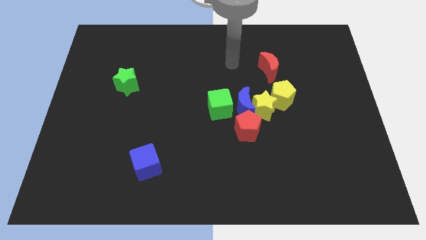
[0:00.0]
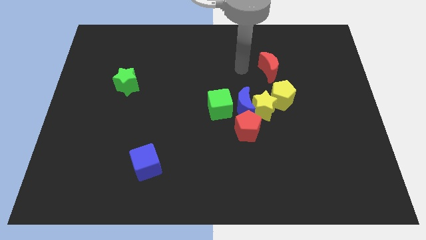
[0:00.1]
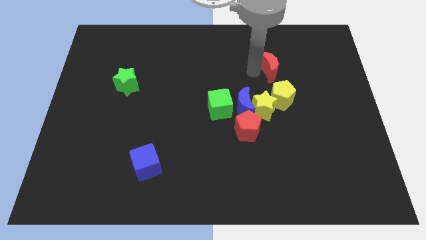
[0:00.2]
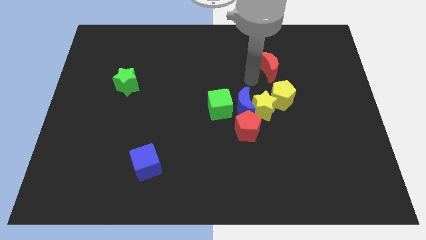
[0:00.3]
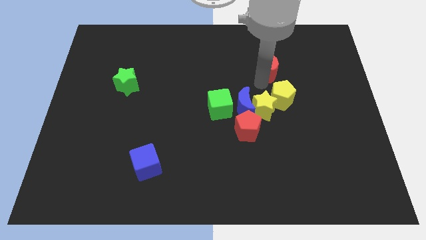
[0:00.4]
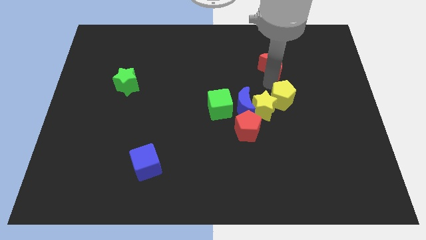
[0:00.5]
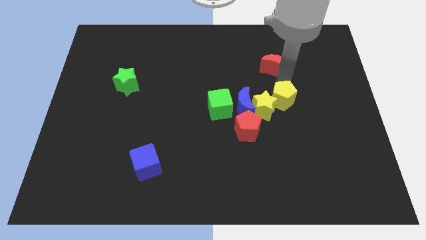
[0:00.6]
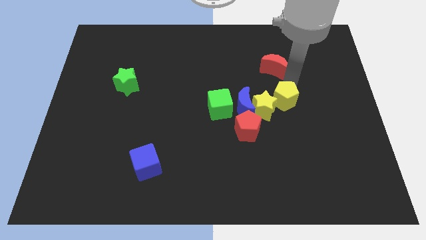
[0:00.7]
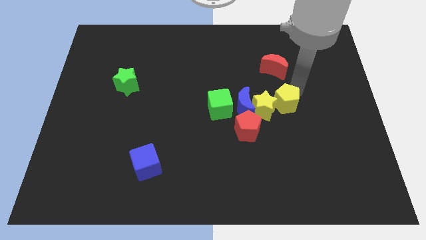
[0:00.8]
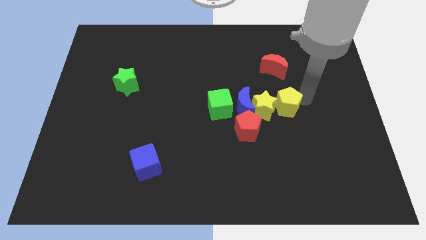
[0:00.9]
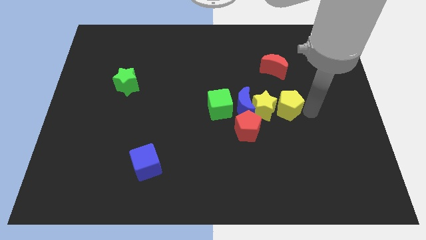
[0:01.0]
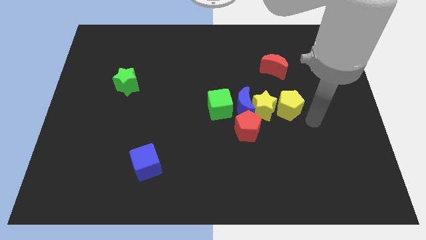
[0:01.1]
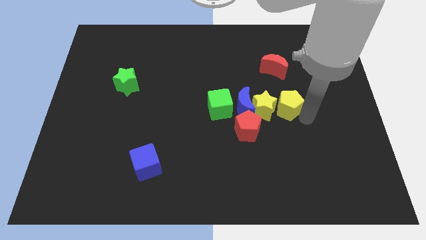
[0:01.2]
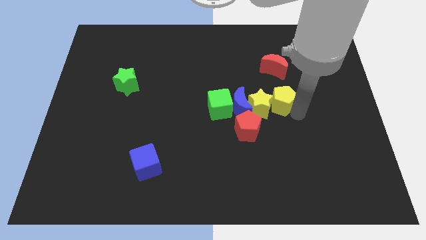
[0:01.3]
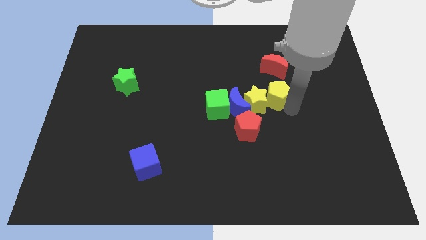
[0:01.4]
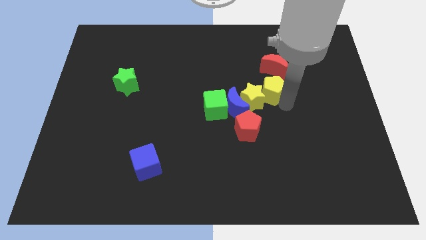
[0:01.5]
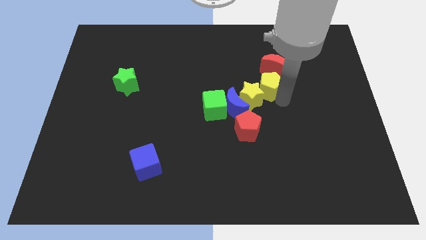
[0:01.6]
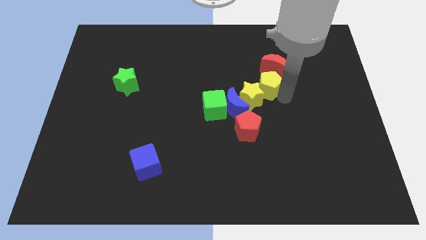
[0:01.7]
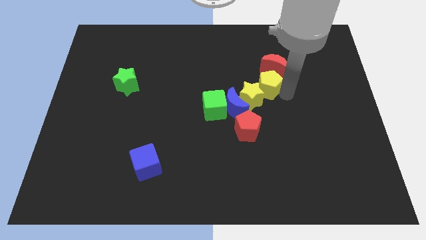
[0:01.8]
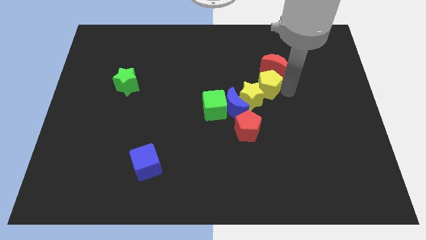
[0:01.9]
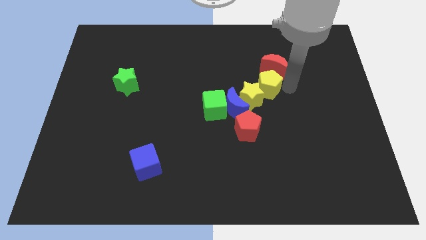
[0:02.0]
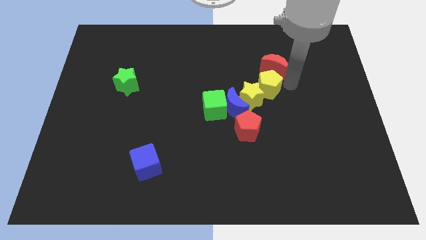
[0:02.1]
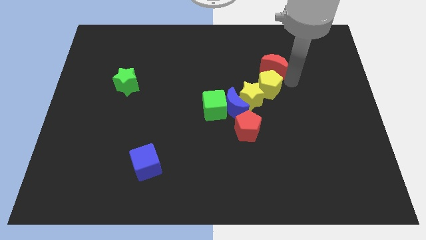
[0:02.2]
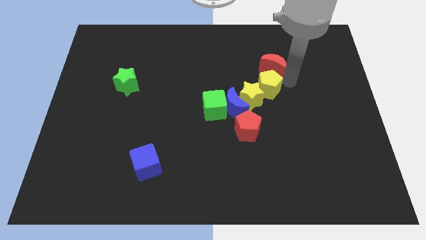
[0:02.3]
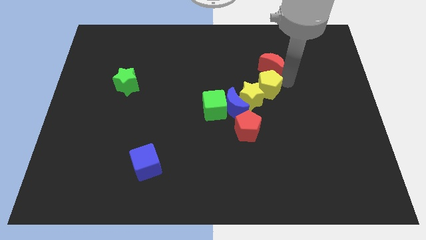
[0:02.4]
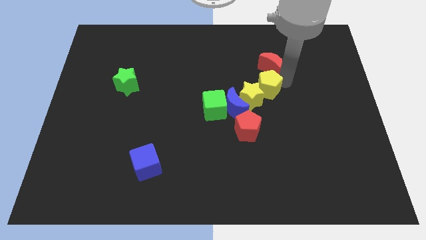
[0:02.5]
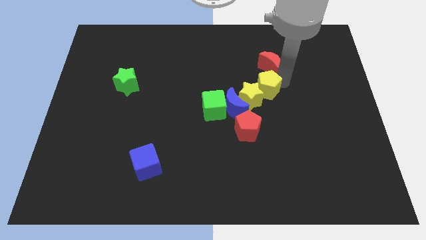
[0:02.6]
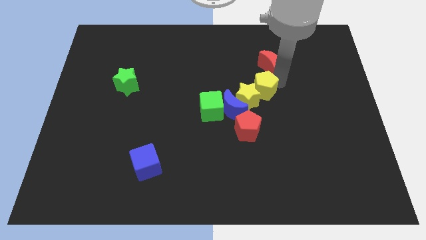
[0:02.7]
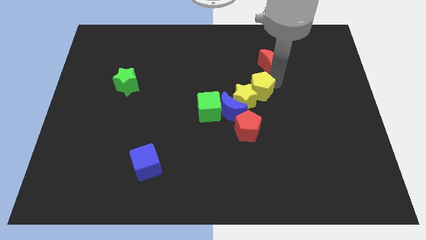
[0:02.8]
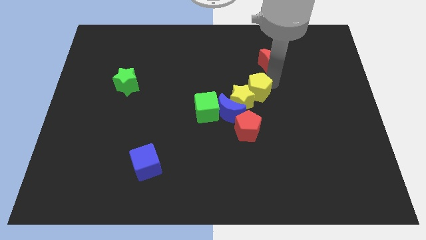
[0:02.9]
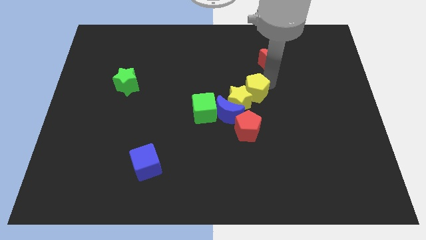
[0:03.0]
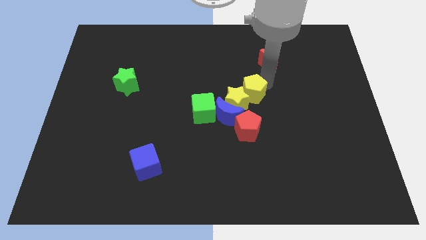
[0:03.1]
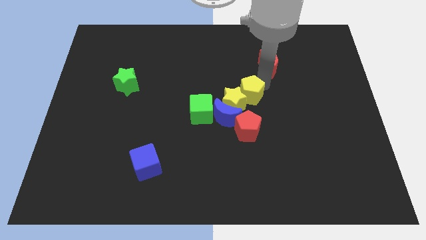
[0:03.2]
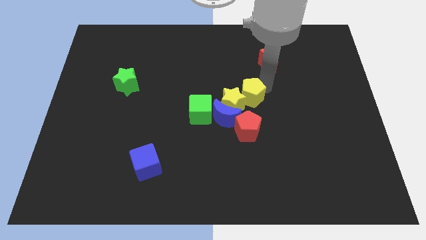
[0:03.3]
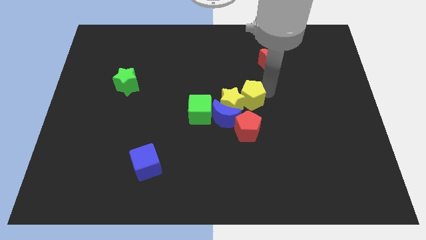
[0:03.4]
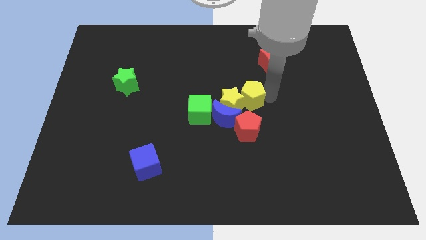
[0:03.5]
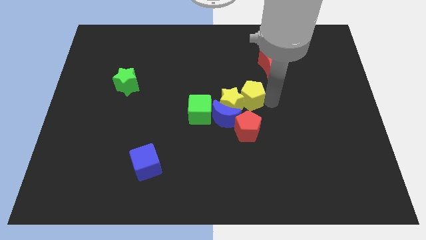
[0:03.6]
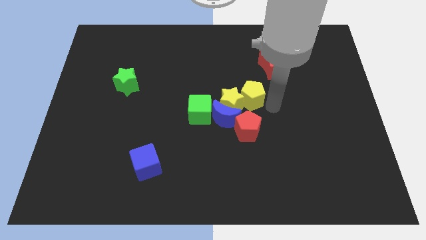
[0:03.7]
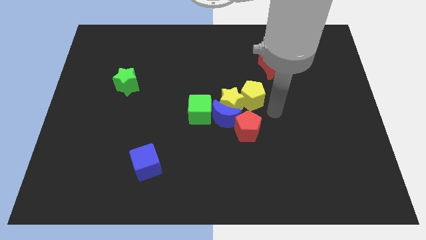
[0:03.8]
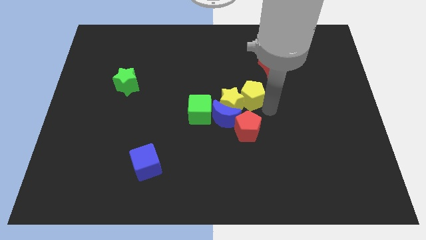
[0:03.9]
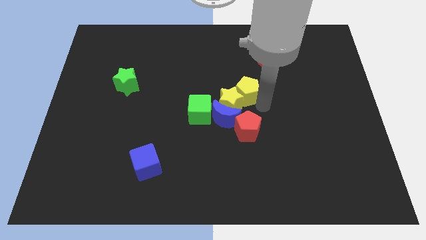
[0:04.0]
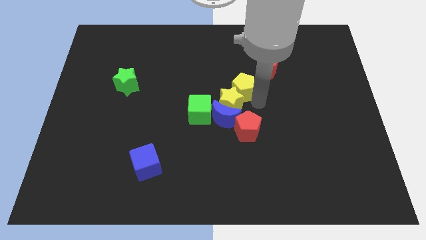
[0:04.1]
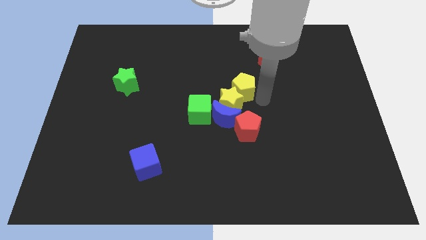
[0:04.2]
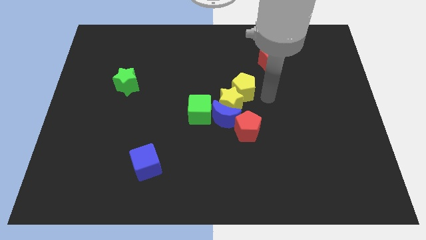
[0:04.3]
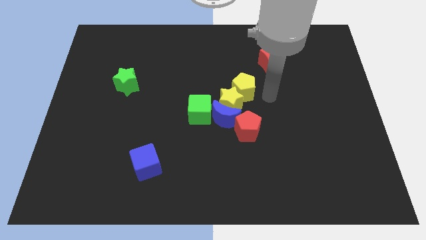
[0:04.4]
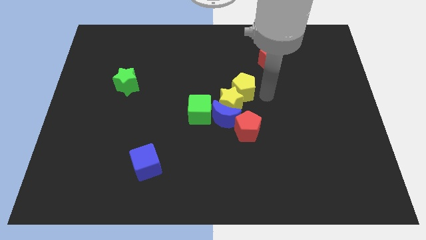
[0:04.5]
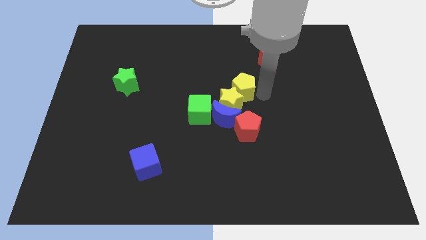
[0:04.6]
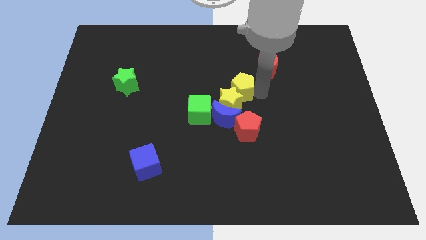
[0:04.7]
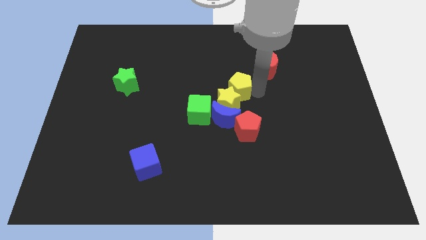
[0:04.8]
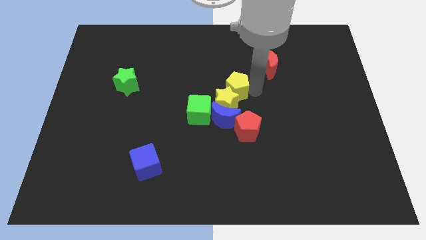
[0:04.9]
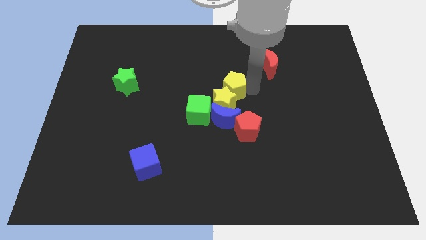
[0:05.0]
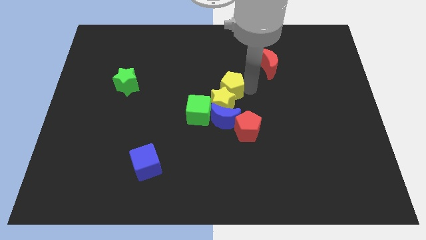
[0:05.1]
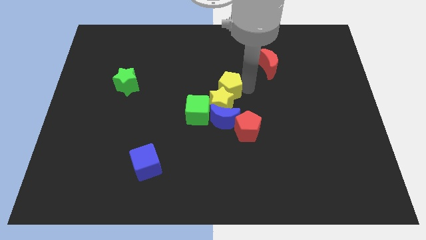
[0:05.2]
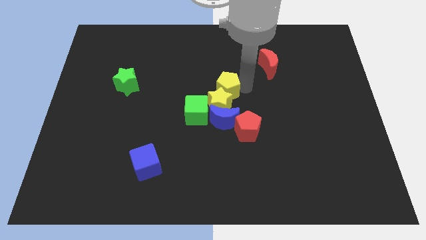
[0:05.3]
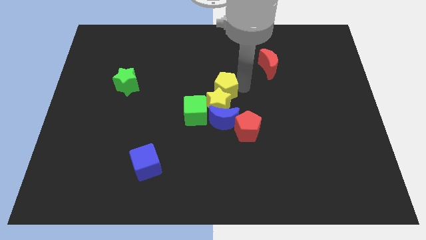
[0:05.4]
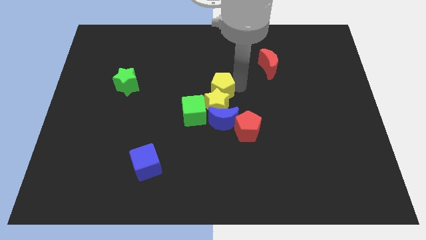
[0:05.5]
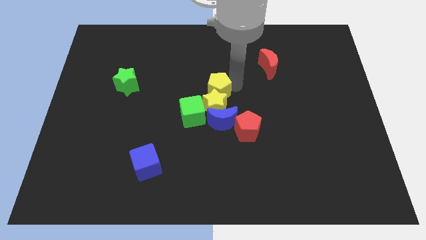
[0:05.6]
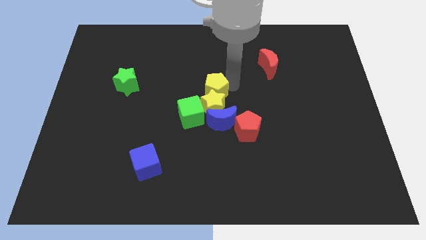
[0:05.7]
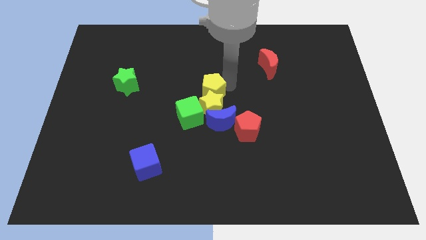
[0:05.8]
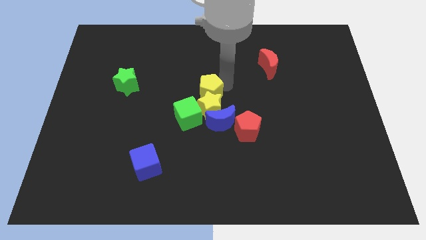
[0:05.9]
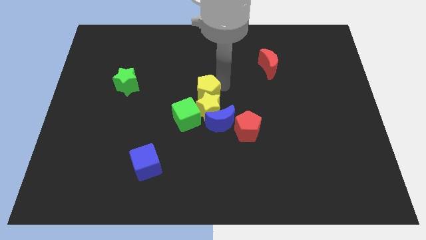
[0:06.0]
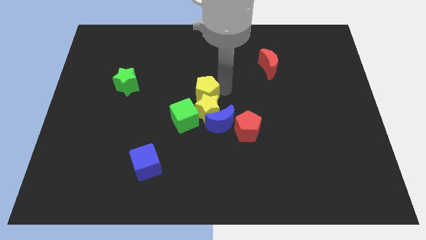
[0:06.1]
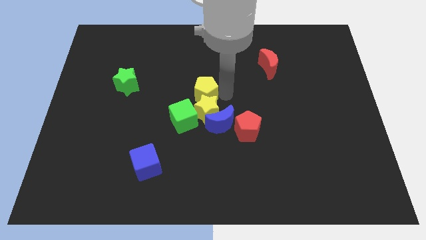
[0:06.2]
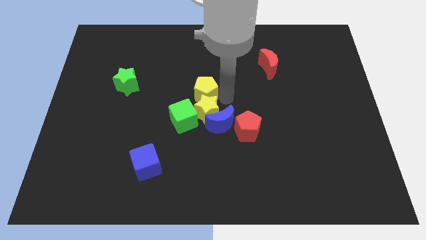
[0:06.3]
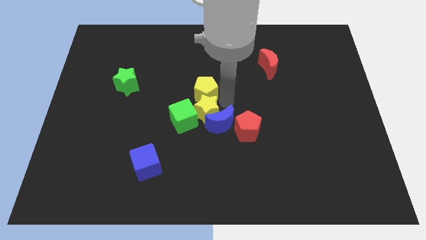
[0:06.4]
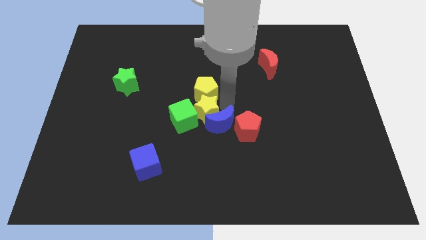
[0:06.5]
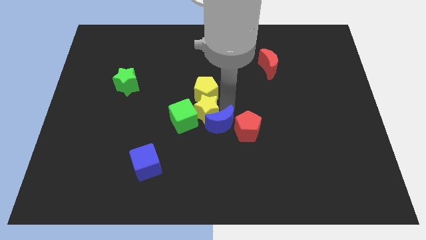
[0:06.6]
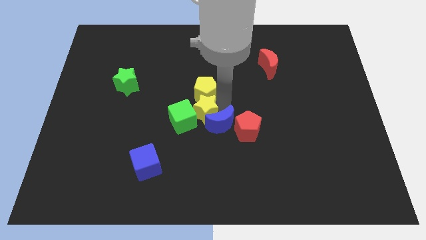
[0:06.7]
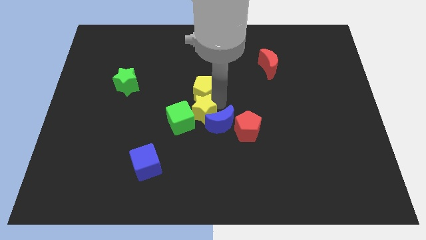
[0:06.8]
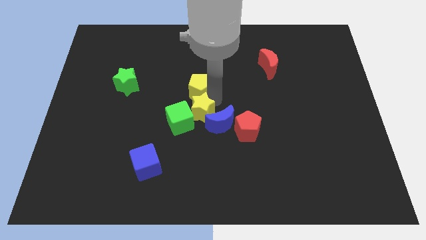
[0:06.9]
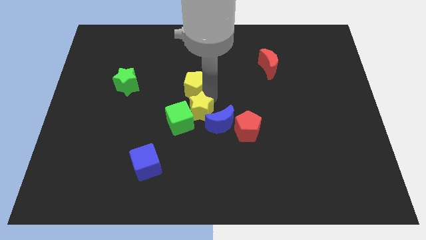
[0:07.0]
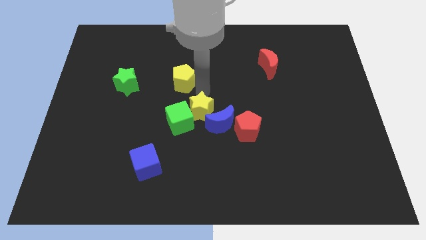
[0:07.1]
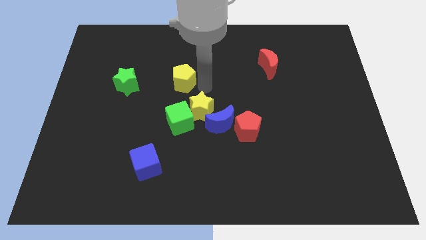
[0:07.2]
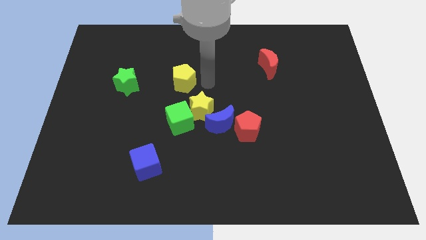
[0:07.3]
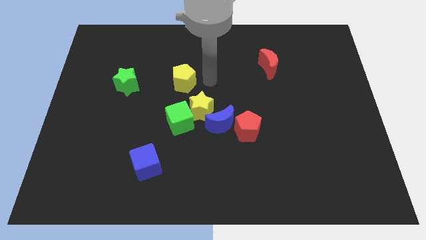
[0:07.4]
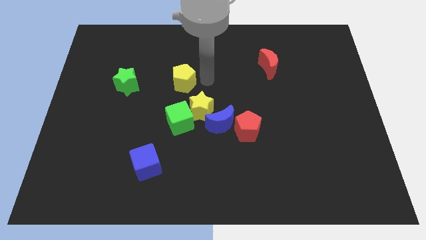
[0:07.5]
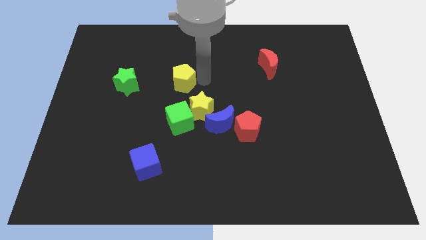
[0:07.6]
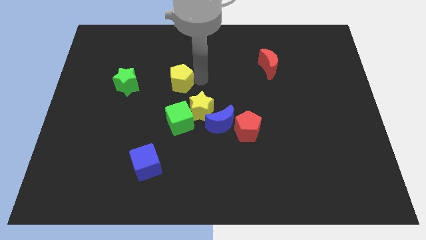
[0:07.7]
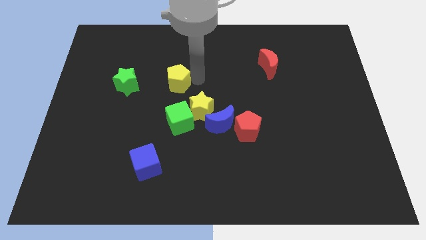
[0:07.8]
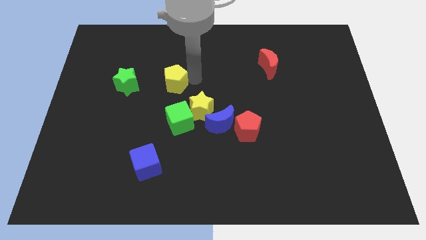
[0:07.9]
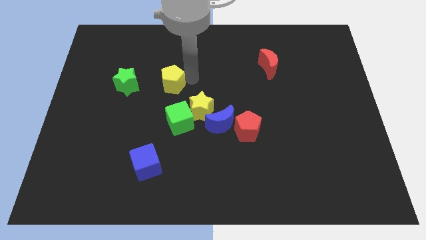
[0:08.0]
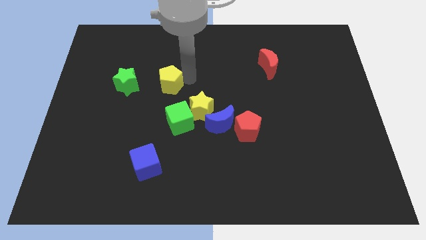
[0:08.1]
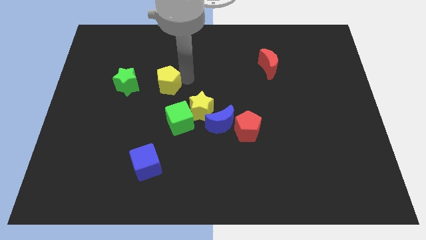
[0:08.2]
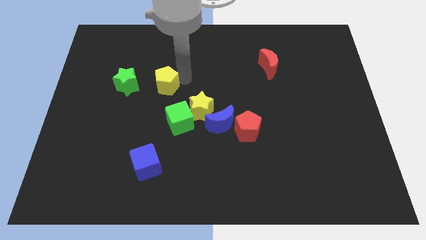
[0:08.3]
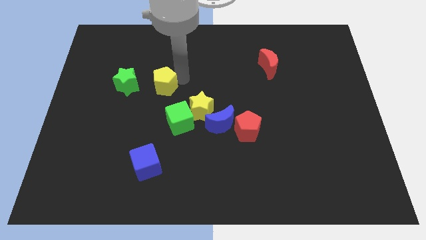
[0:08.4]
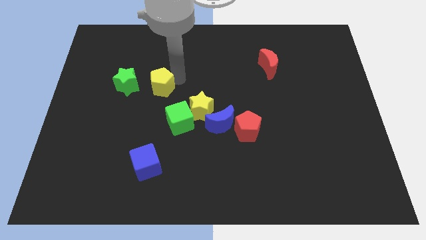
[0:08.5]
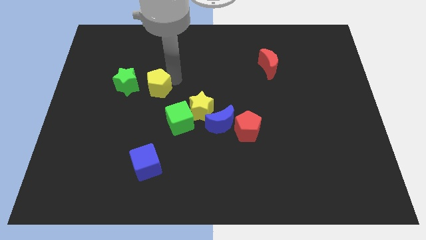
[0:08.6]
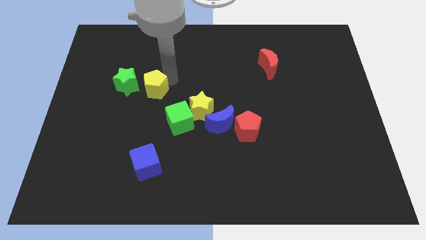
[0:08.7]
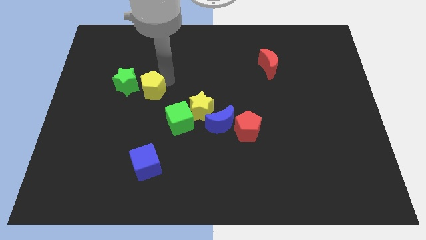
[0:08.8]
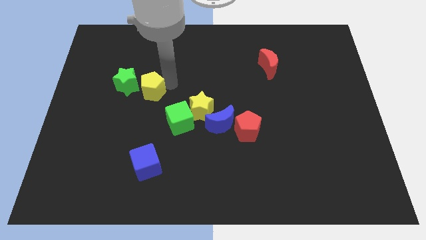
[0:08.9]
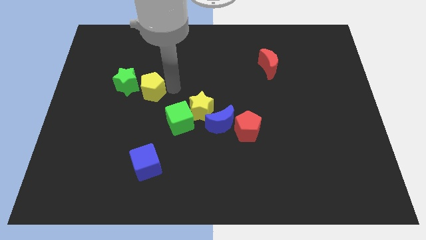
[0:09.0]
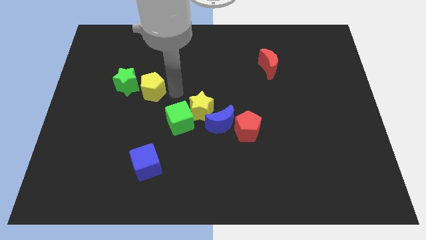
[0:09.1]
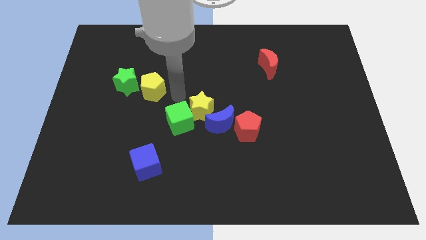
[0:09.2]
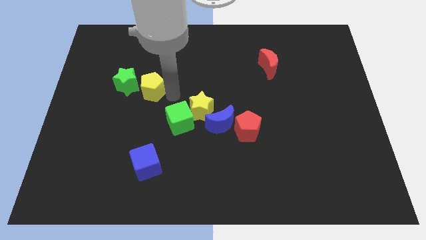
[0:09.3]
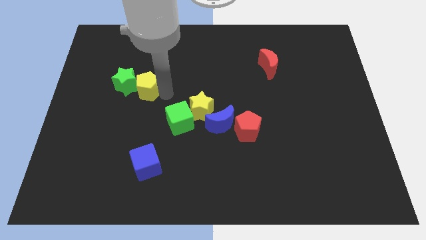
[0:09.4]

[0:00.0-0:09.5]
move the yellow pentagon close to the green star
